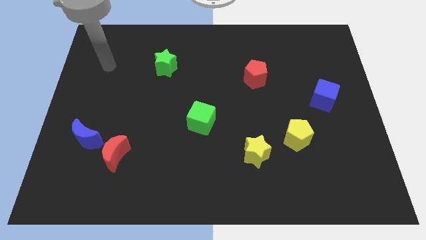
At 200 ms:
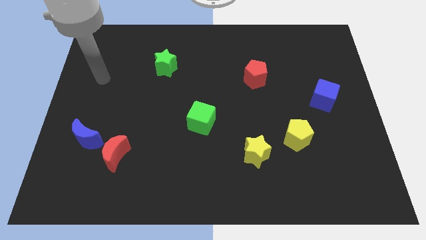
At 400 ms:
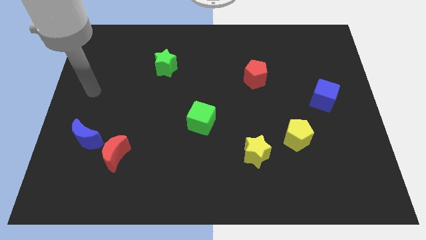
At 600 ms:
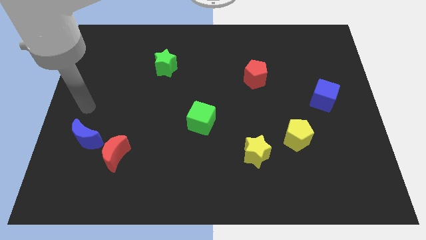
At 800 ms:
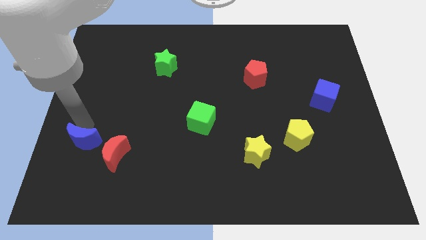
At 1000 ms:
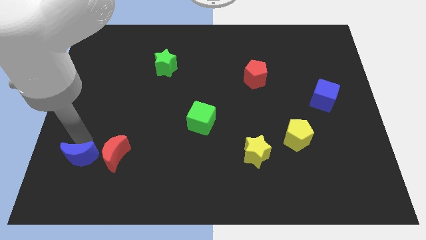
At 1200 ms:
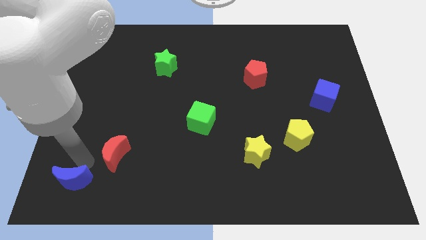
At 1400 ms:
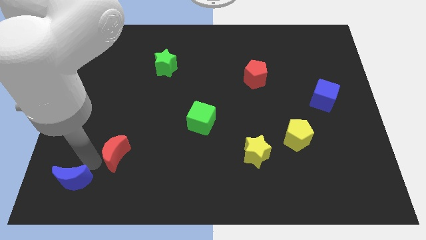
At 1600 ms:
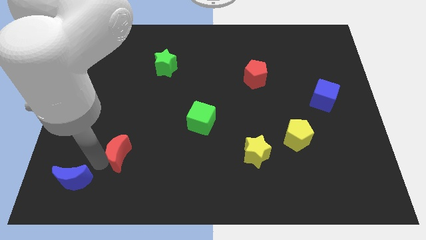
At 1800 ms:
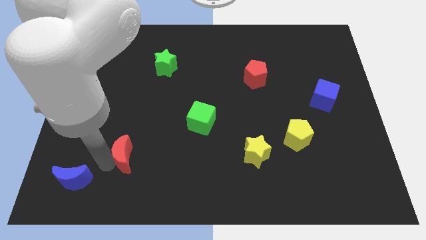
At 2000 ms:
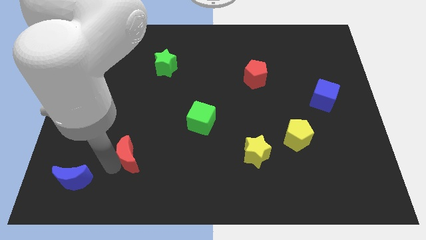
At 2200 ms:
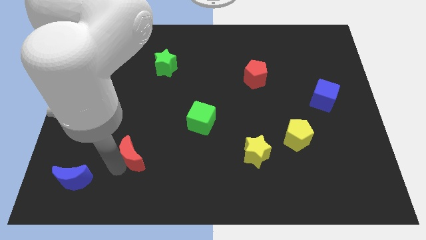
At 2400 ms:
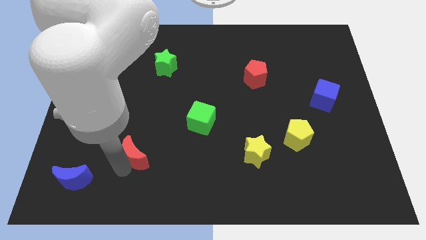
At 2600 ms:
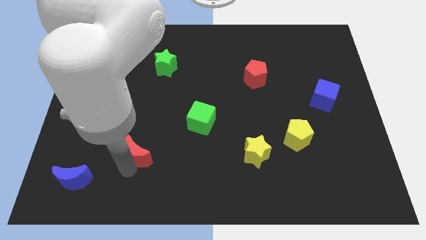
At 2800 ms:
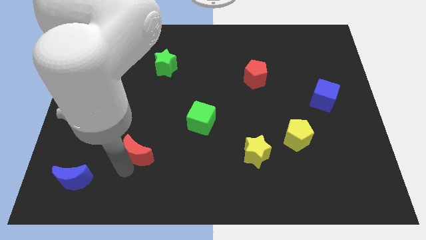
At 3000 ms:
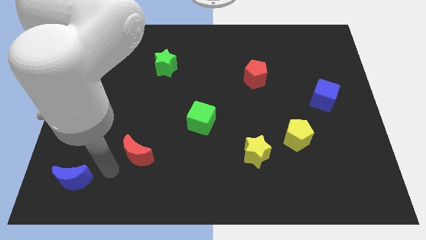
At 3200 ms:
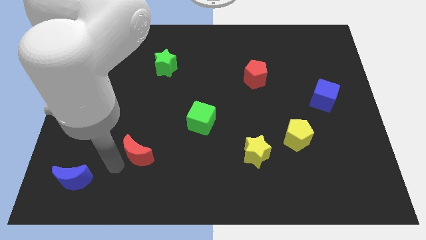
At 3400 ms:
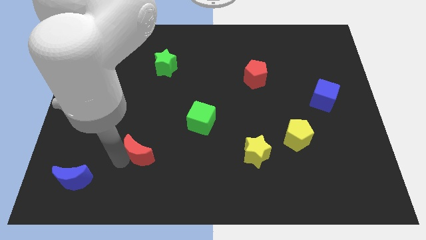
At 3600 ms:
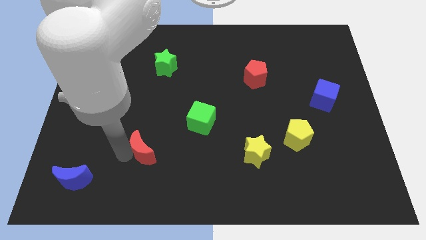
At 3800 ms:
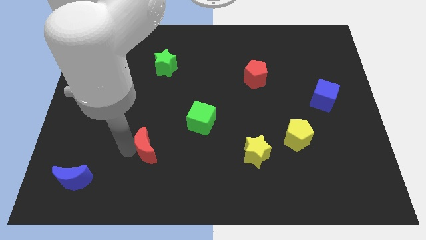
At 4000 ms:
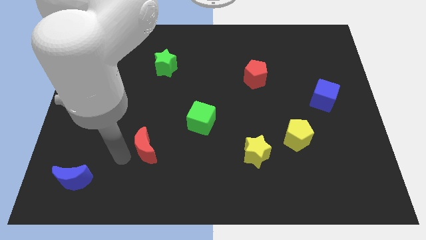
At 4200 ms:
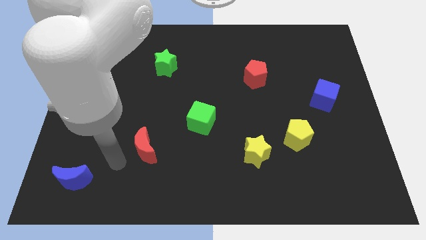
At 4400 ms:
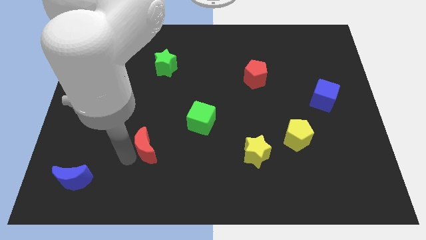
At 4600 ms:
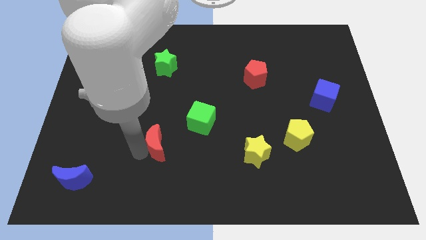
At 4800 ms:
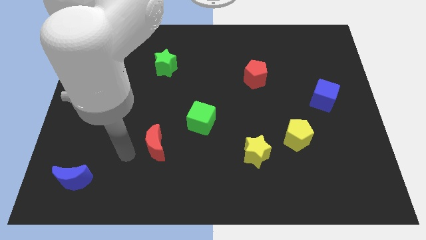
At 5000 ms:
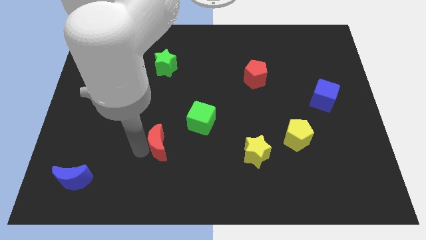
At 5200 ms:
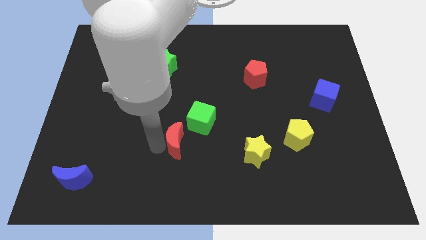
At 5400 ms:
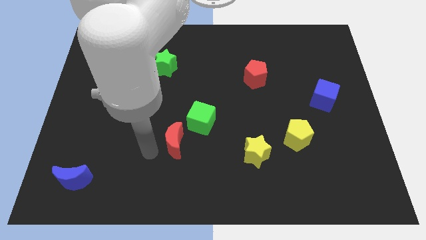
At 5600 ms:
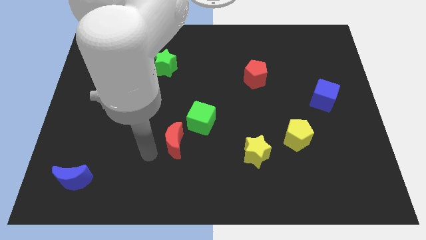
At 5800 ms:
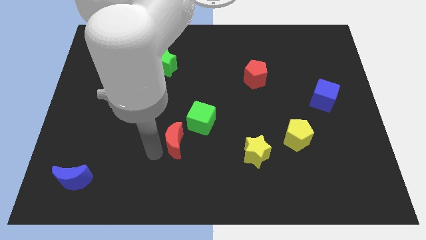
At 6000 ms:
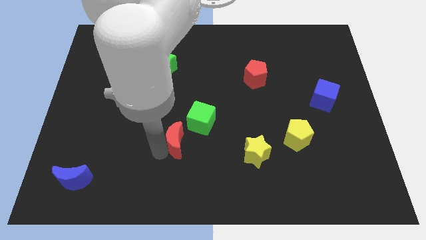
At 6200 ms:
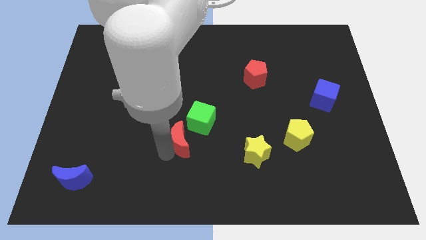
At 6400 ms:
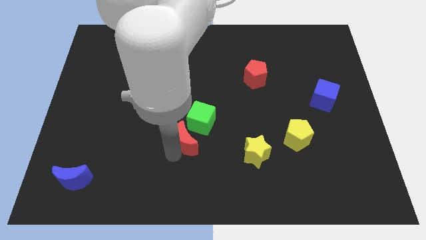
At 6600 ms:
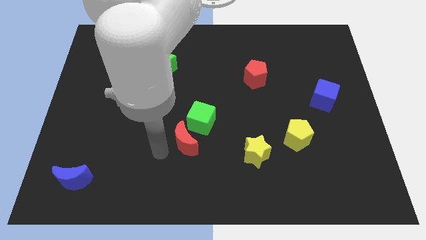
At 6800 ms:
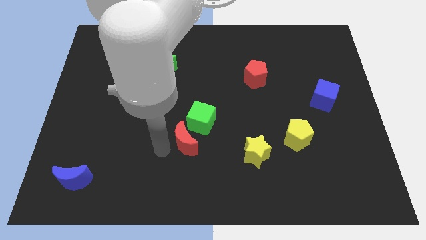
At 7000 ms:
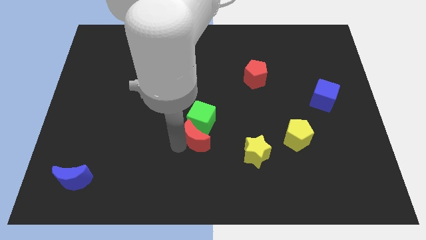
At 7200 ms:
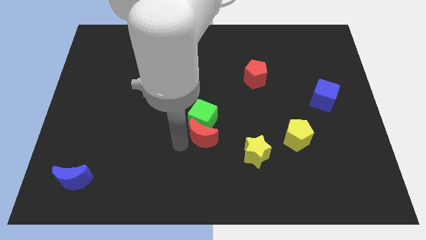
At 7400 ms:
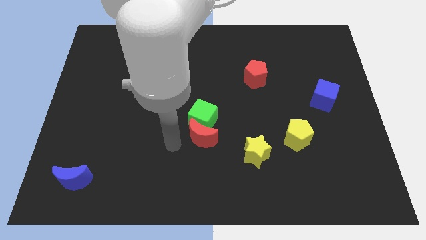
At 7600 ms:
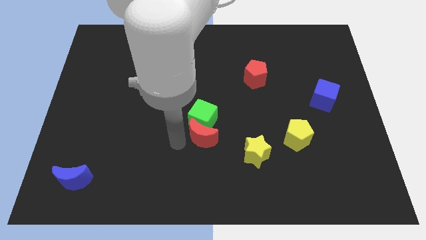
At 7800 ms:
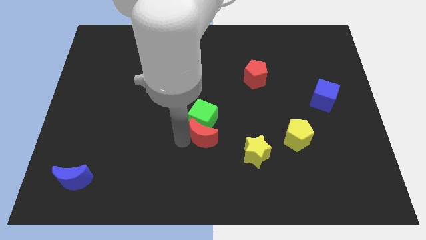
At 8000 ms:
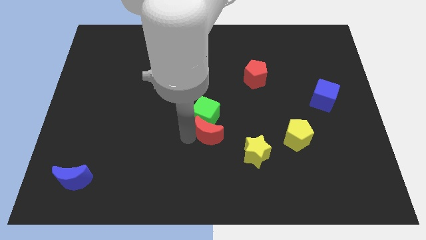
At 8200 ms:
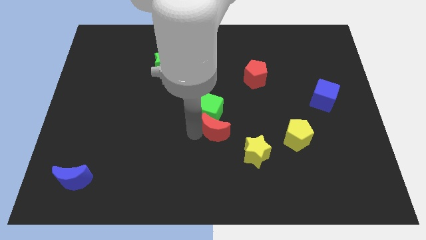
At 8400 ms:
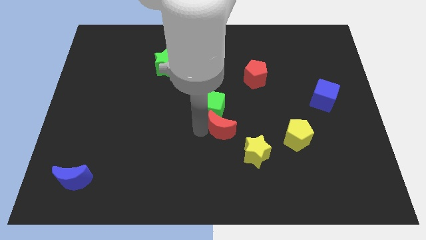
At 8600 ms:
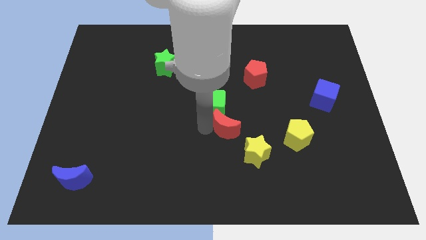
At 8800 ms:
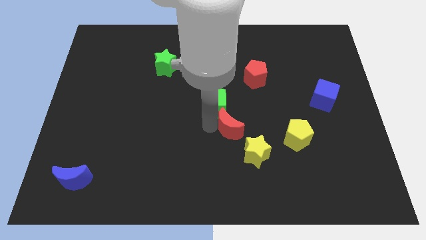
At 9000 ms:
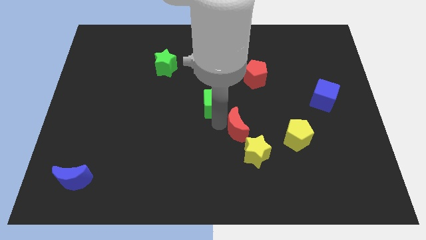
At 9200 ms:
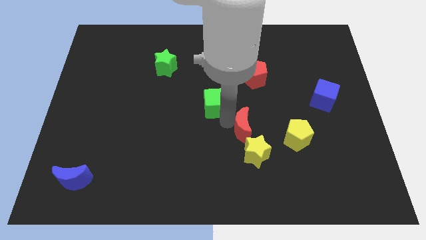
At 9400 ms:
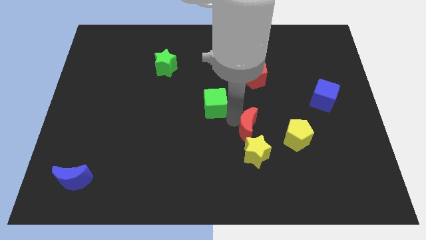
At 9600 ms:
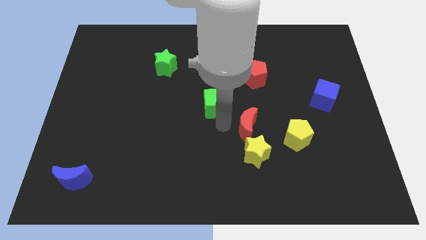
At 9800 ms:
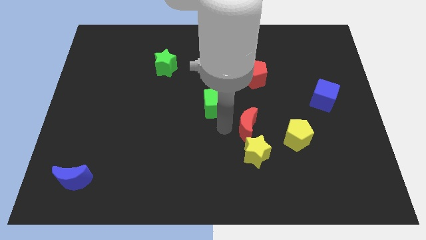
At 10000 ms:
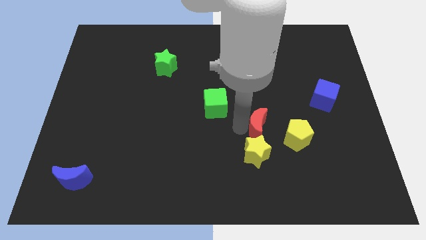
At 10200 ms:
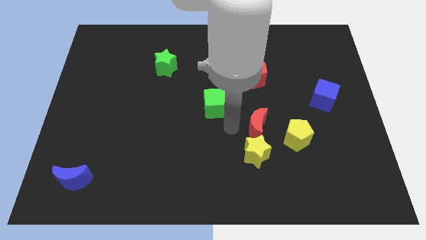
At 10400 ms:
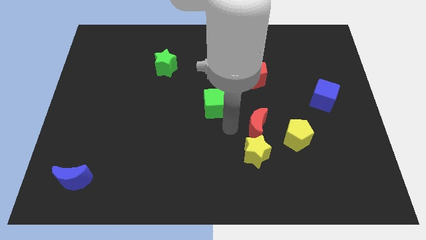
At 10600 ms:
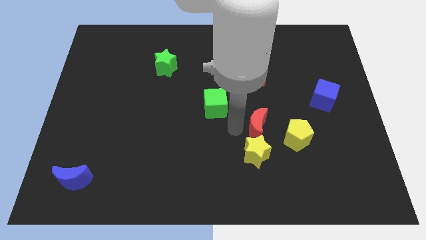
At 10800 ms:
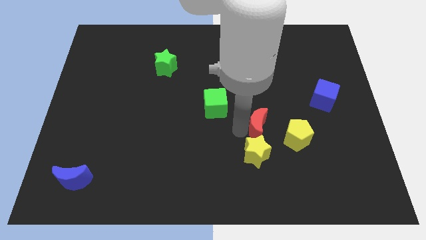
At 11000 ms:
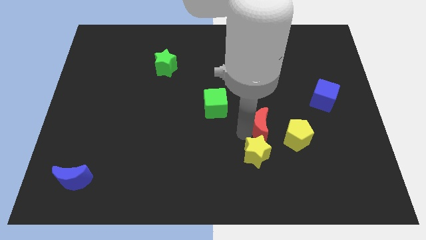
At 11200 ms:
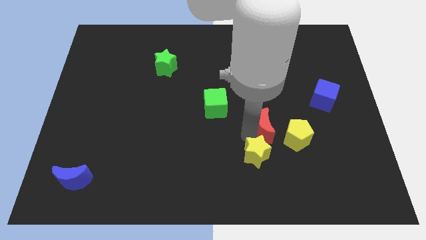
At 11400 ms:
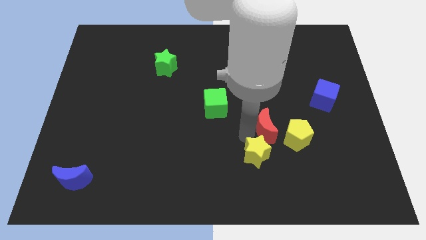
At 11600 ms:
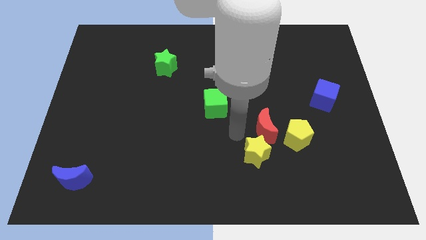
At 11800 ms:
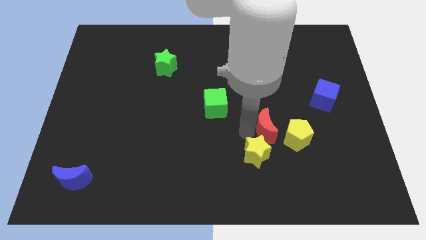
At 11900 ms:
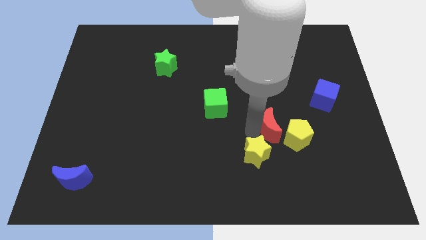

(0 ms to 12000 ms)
move the red moon to the yellow pentagon
